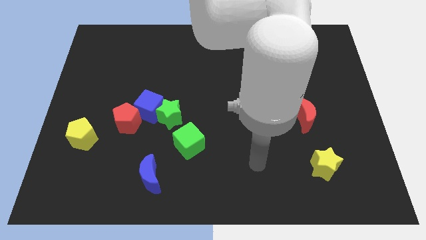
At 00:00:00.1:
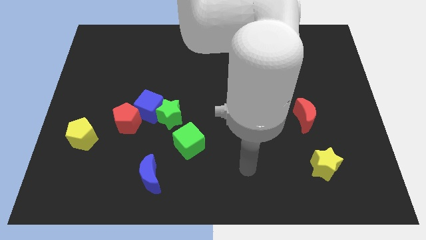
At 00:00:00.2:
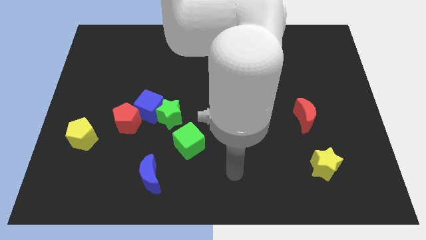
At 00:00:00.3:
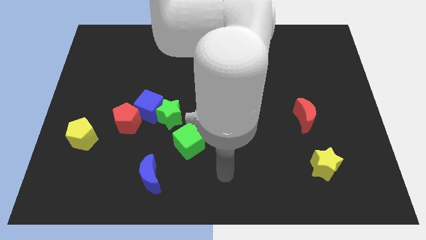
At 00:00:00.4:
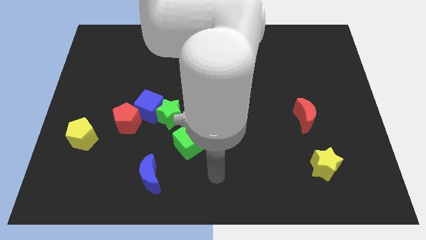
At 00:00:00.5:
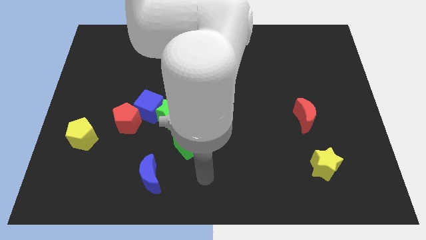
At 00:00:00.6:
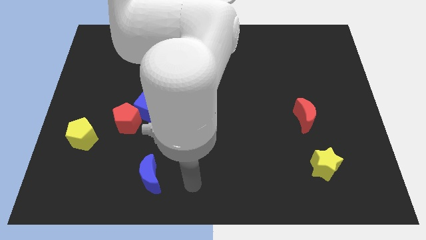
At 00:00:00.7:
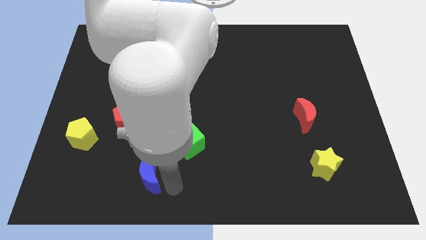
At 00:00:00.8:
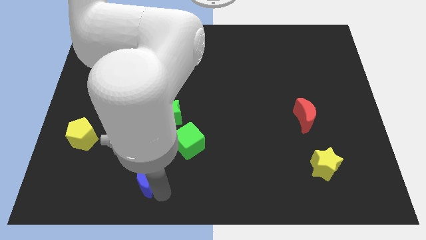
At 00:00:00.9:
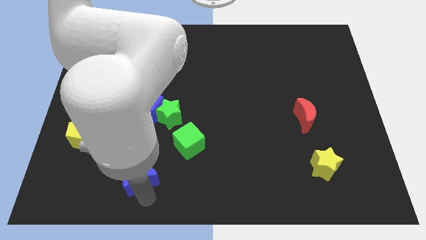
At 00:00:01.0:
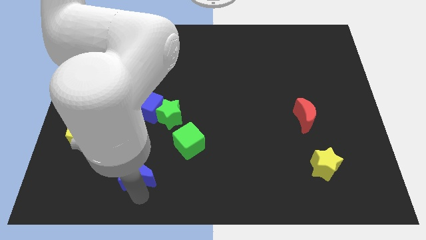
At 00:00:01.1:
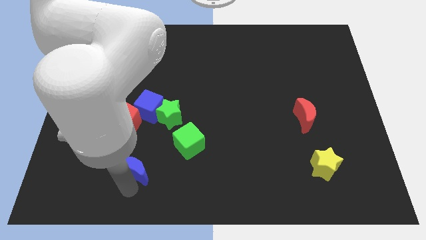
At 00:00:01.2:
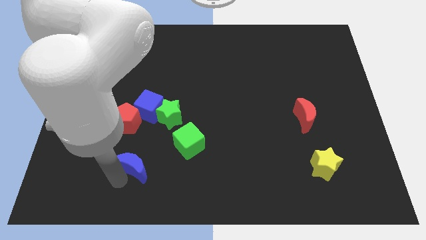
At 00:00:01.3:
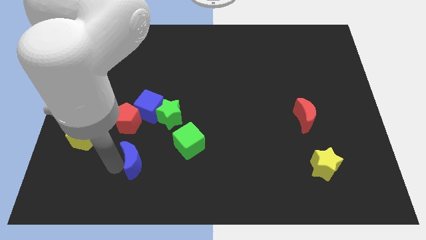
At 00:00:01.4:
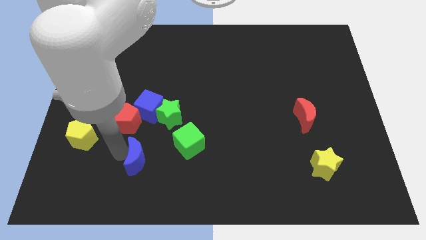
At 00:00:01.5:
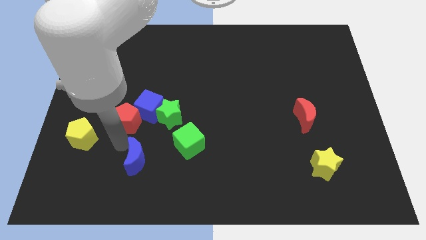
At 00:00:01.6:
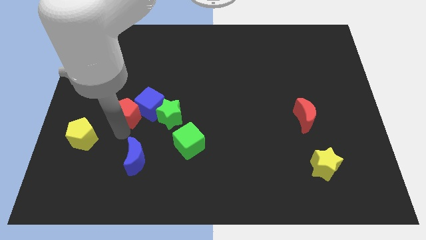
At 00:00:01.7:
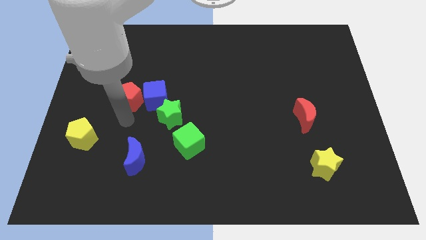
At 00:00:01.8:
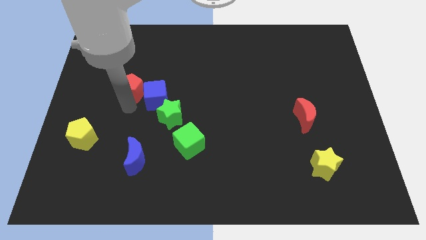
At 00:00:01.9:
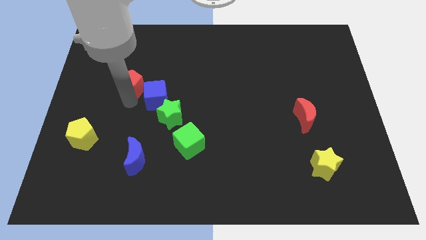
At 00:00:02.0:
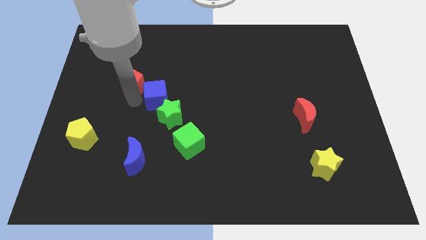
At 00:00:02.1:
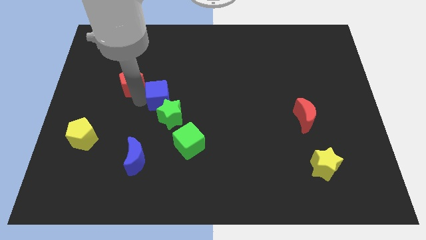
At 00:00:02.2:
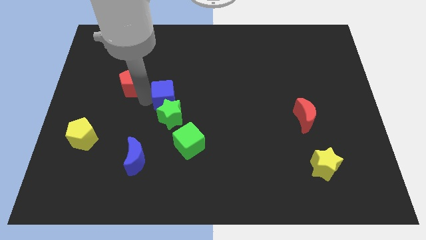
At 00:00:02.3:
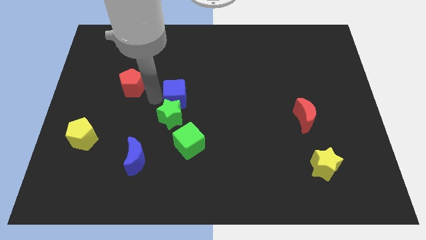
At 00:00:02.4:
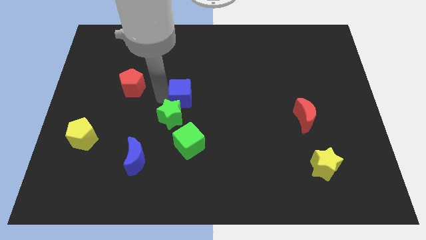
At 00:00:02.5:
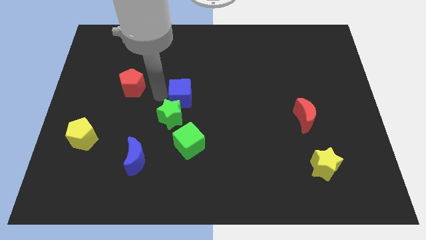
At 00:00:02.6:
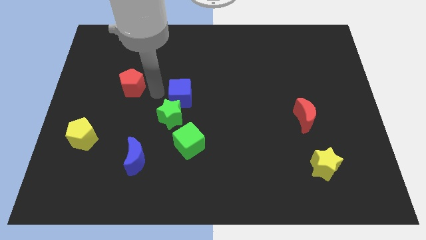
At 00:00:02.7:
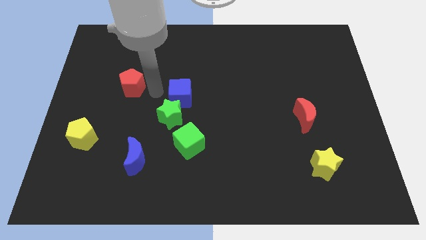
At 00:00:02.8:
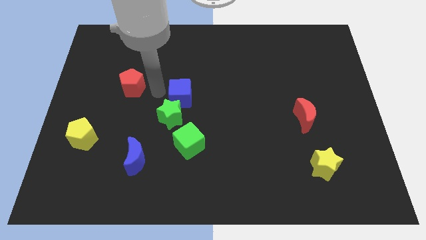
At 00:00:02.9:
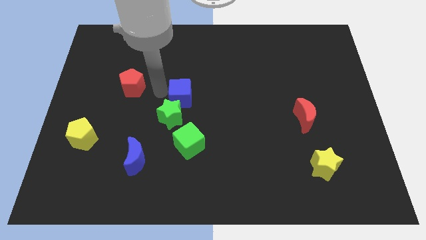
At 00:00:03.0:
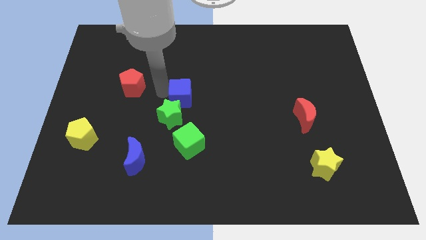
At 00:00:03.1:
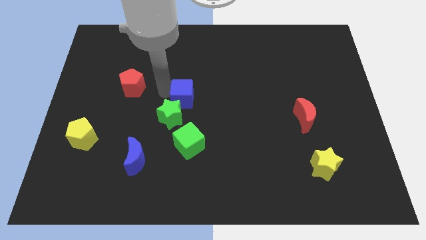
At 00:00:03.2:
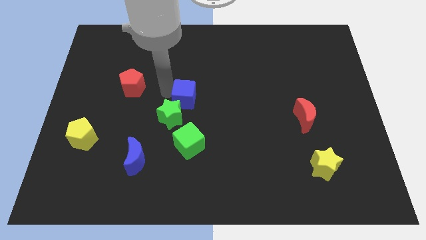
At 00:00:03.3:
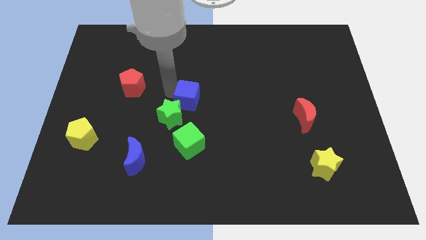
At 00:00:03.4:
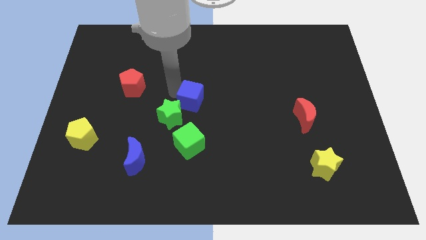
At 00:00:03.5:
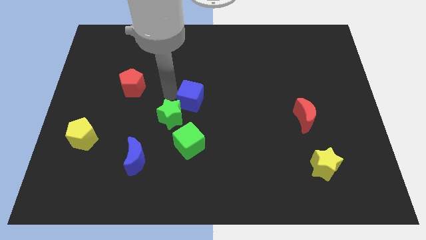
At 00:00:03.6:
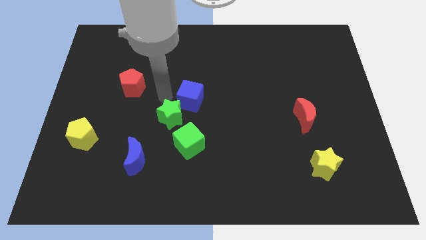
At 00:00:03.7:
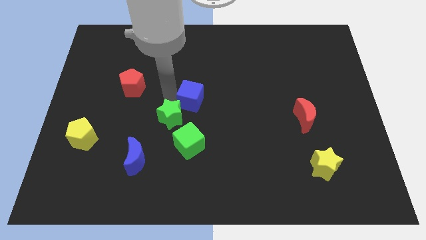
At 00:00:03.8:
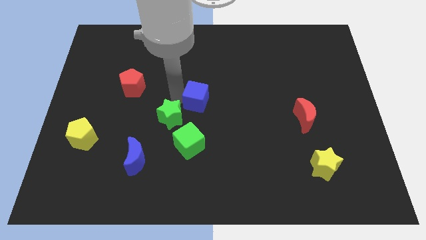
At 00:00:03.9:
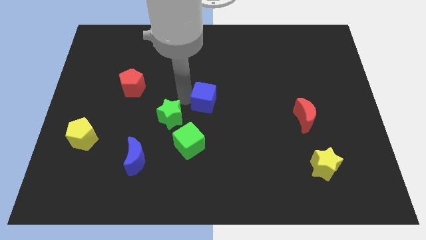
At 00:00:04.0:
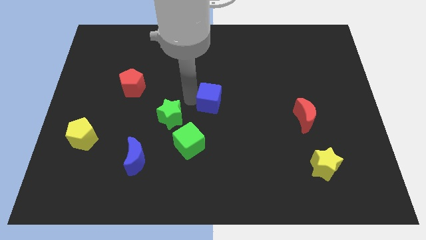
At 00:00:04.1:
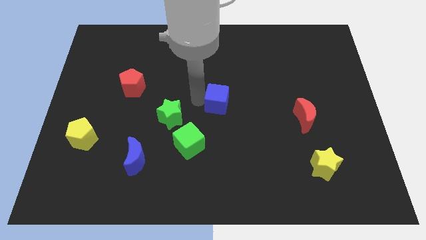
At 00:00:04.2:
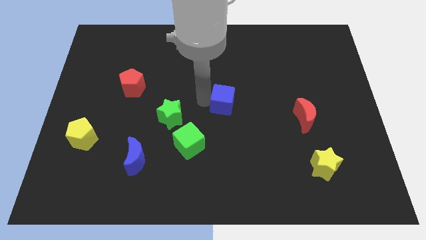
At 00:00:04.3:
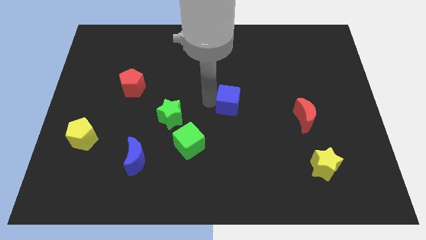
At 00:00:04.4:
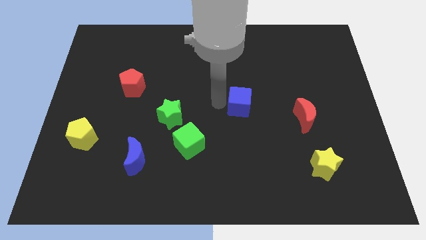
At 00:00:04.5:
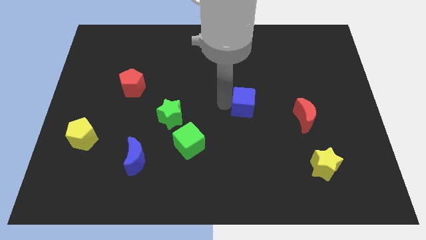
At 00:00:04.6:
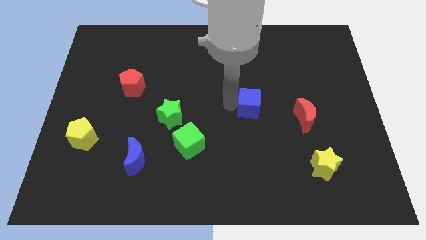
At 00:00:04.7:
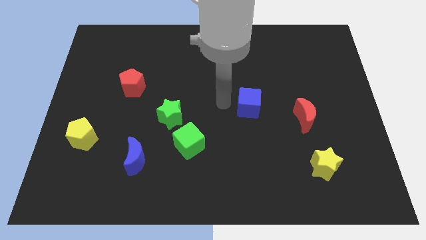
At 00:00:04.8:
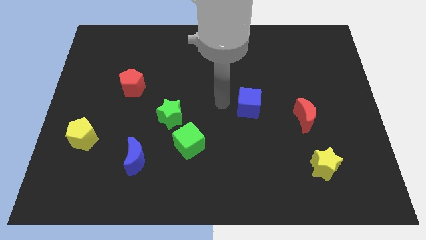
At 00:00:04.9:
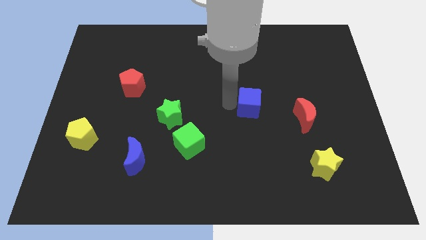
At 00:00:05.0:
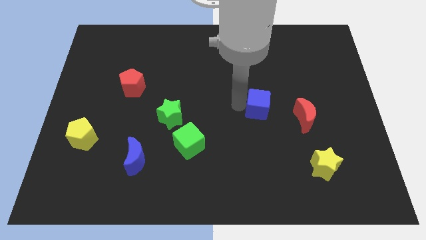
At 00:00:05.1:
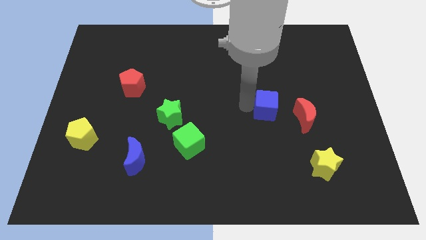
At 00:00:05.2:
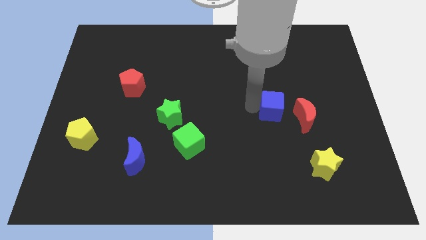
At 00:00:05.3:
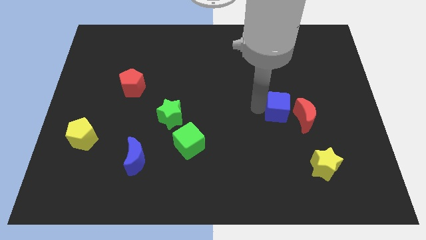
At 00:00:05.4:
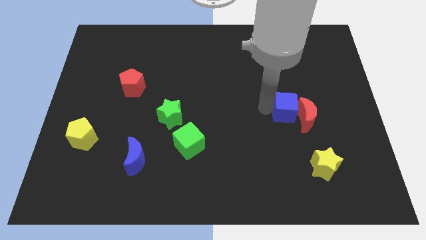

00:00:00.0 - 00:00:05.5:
put the blue cube to the red moon

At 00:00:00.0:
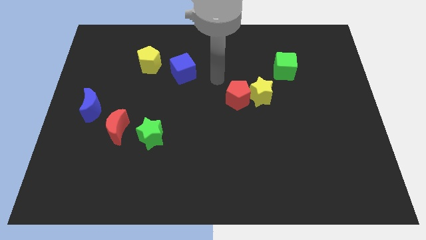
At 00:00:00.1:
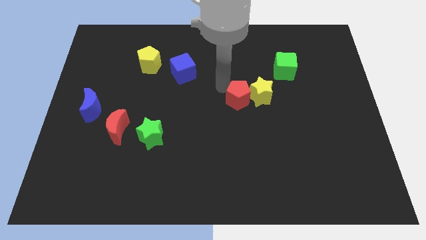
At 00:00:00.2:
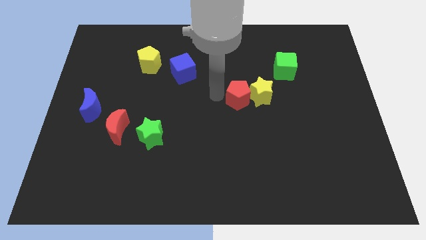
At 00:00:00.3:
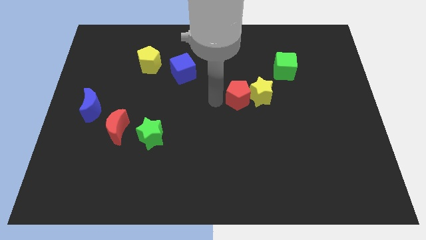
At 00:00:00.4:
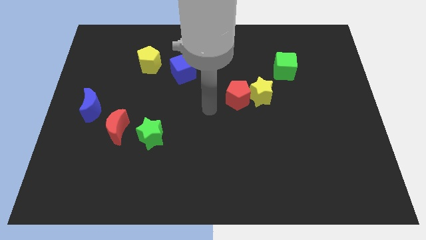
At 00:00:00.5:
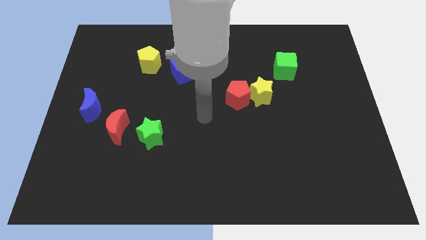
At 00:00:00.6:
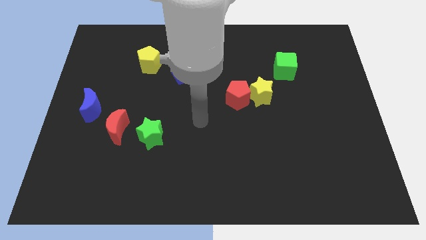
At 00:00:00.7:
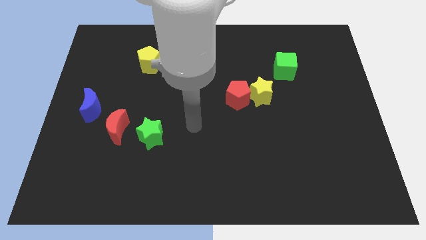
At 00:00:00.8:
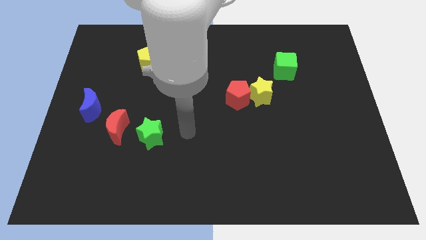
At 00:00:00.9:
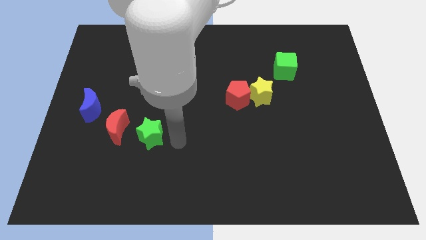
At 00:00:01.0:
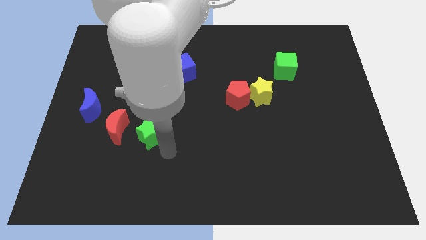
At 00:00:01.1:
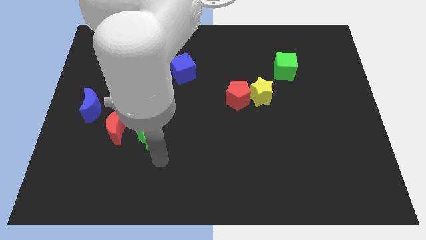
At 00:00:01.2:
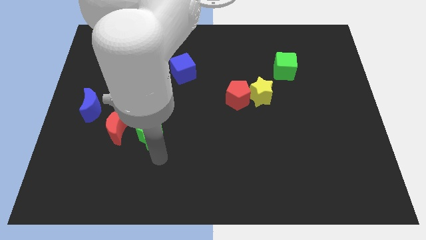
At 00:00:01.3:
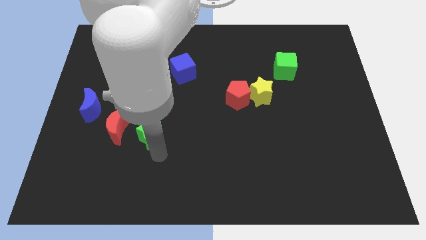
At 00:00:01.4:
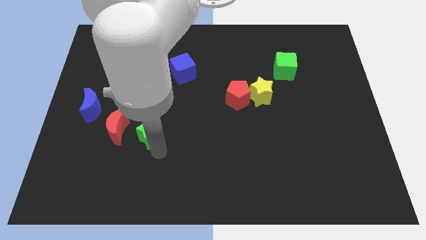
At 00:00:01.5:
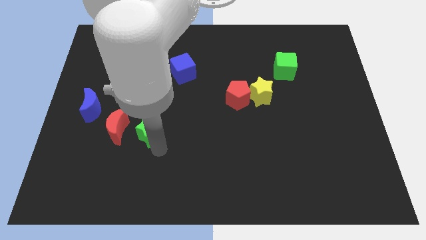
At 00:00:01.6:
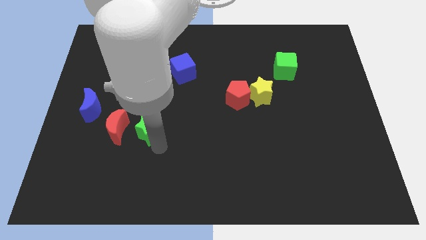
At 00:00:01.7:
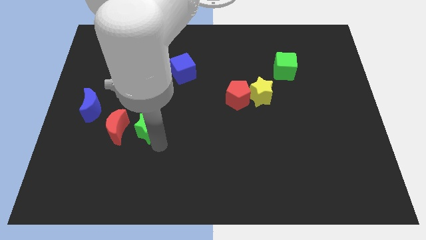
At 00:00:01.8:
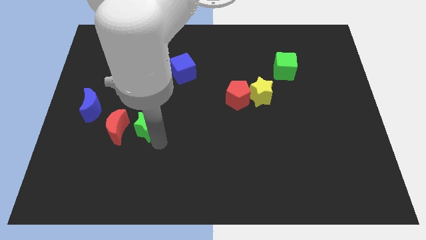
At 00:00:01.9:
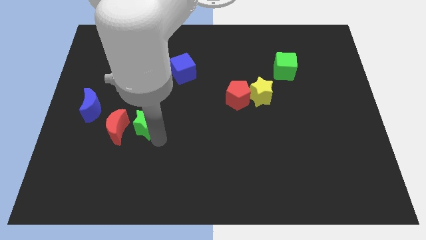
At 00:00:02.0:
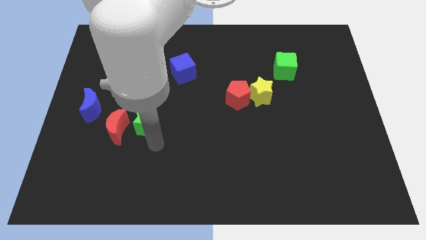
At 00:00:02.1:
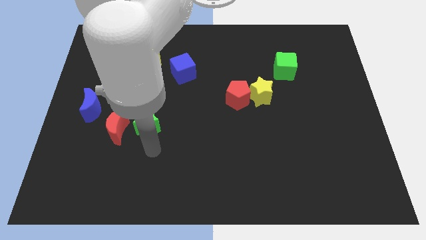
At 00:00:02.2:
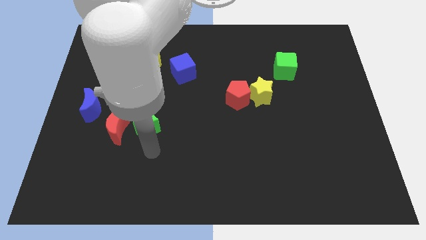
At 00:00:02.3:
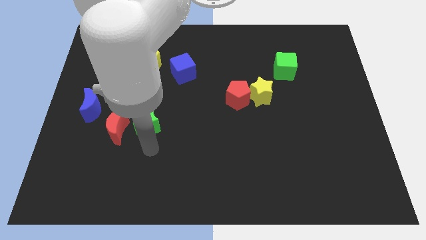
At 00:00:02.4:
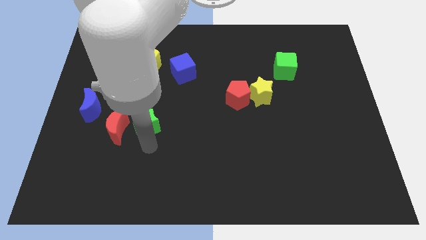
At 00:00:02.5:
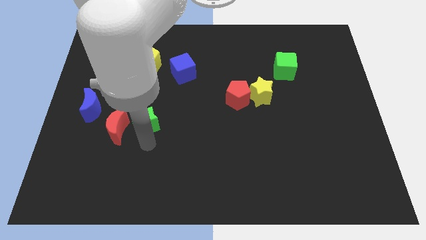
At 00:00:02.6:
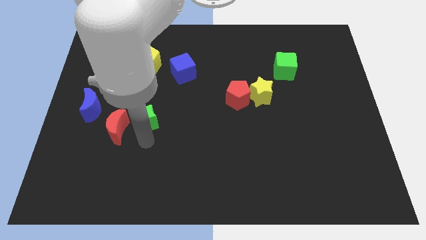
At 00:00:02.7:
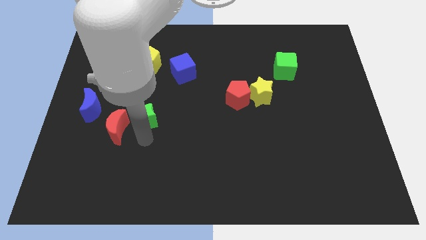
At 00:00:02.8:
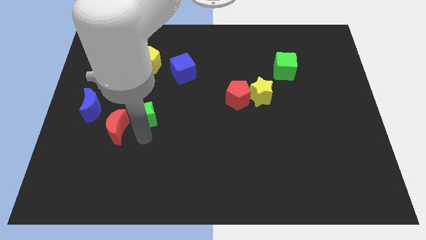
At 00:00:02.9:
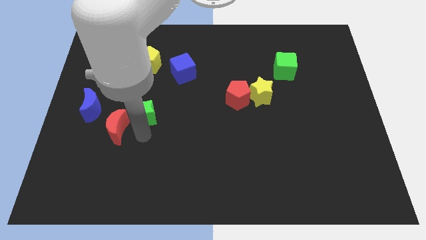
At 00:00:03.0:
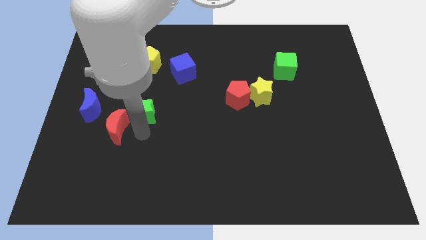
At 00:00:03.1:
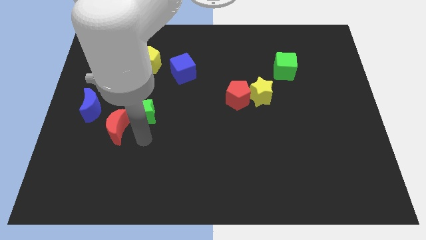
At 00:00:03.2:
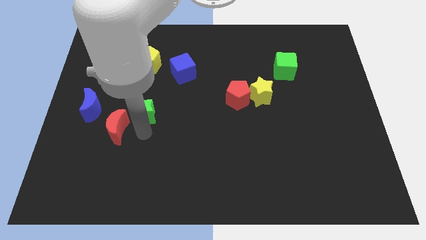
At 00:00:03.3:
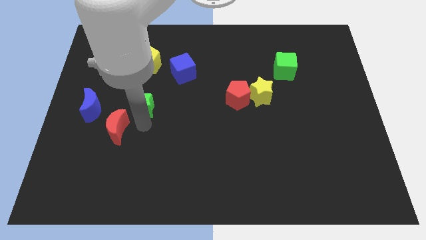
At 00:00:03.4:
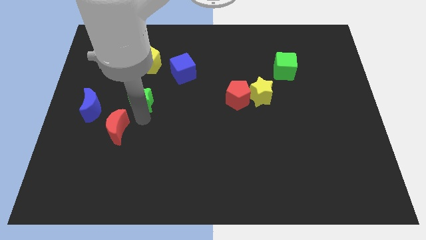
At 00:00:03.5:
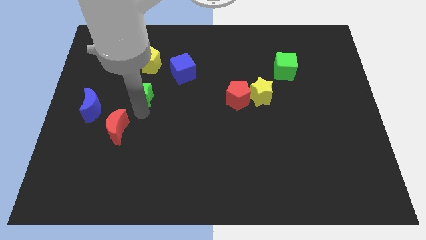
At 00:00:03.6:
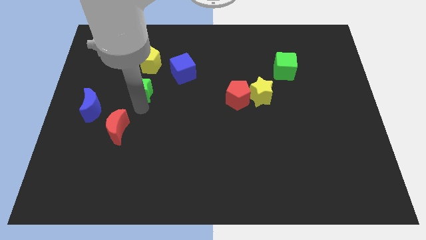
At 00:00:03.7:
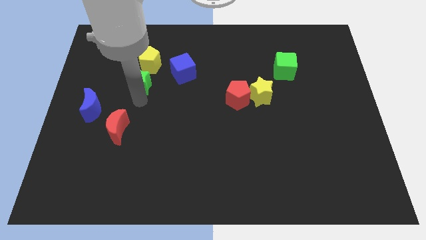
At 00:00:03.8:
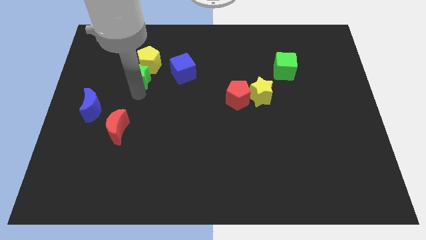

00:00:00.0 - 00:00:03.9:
put the green star close to the yellow pentagon
